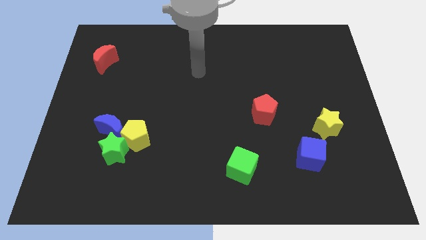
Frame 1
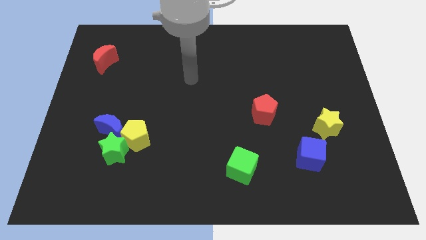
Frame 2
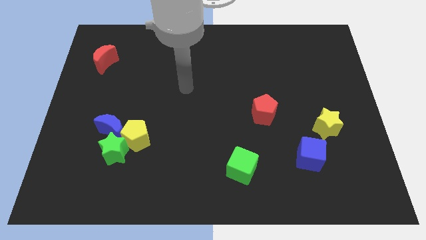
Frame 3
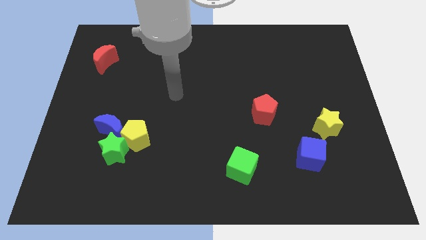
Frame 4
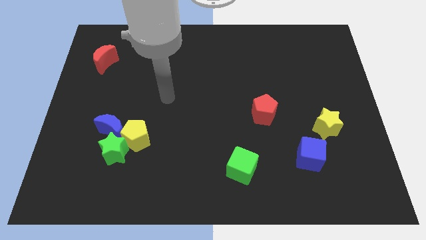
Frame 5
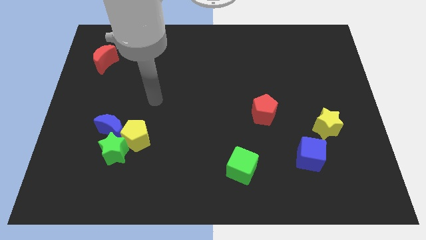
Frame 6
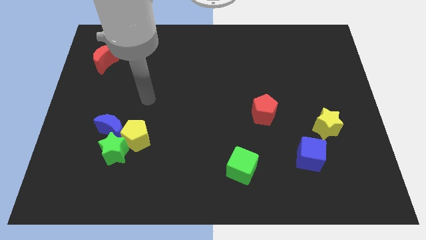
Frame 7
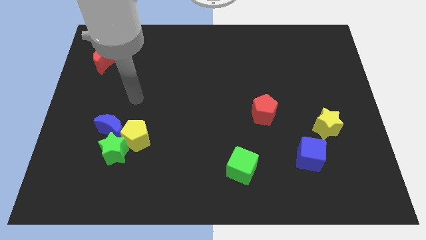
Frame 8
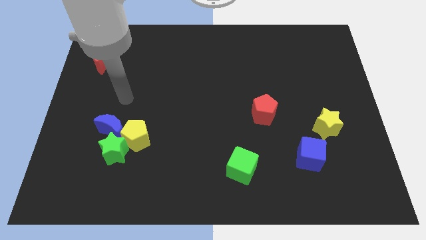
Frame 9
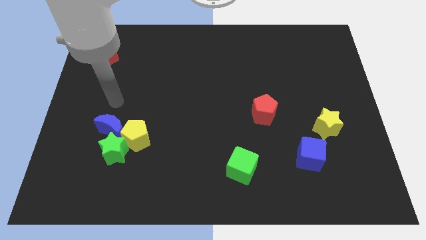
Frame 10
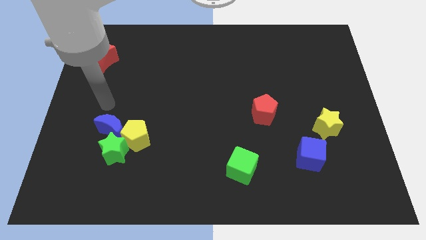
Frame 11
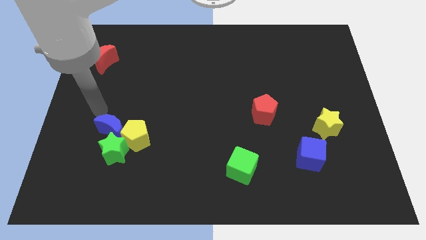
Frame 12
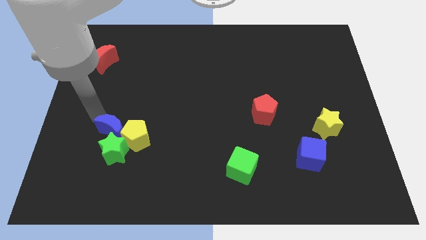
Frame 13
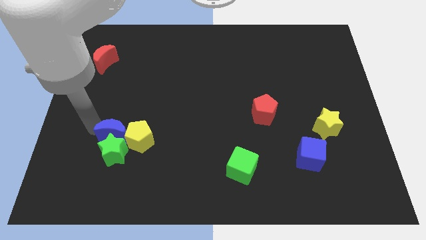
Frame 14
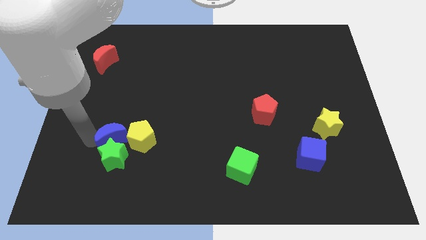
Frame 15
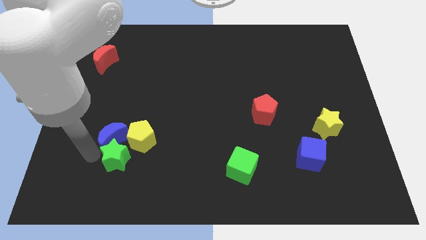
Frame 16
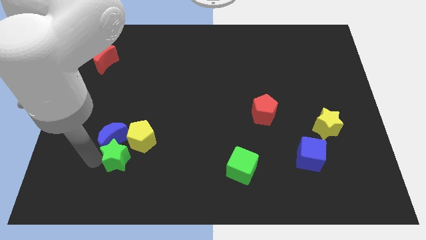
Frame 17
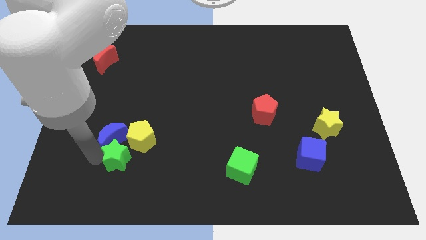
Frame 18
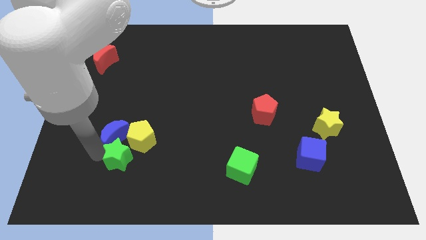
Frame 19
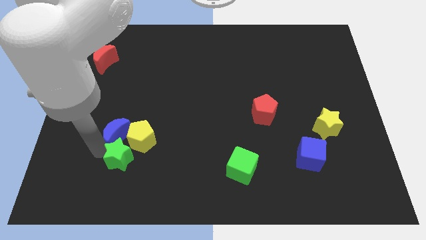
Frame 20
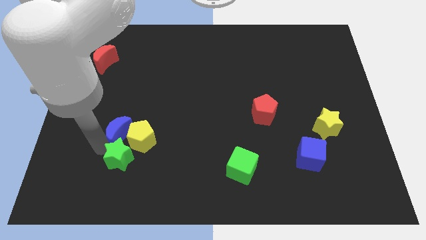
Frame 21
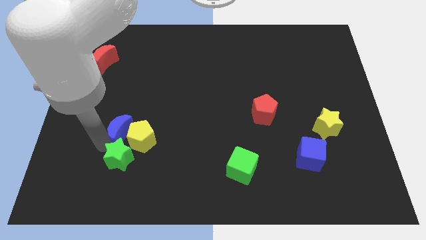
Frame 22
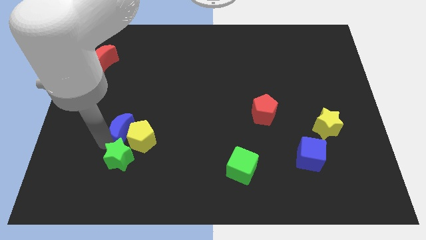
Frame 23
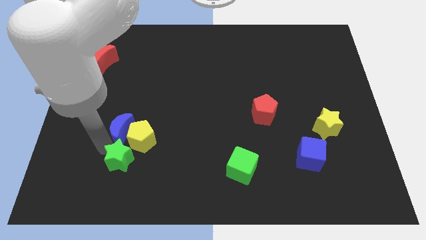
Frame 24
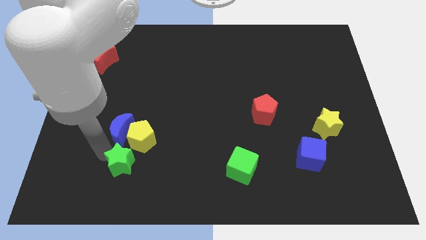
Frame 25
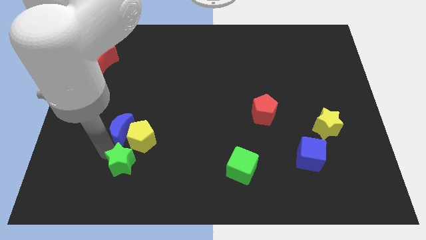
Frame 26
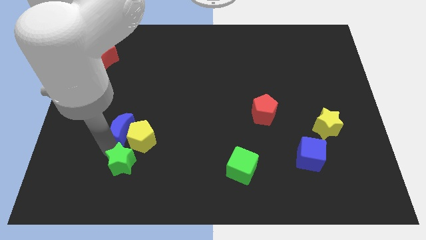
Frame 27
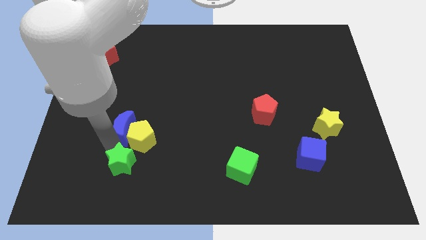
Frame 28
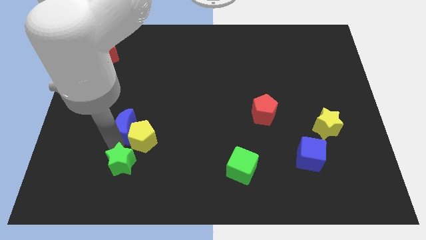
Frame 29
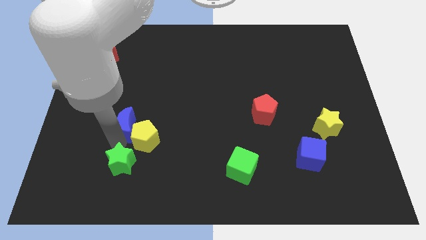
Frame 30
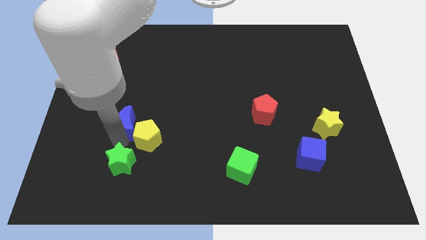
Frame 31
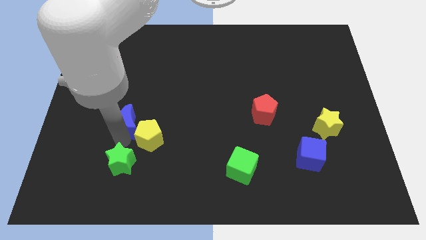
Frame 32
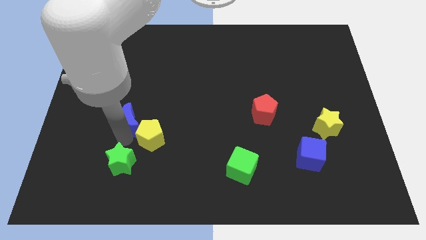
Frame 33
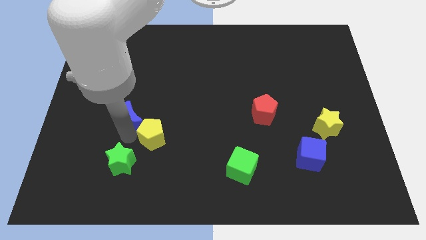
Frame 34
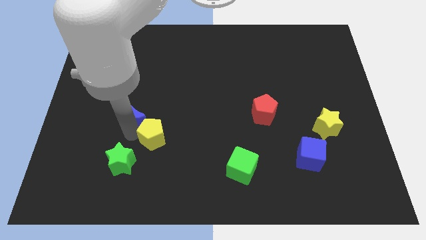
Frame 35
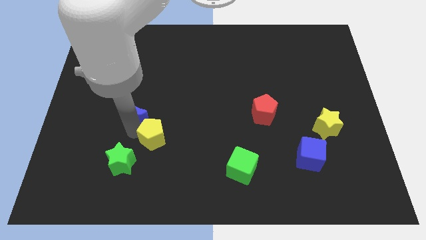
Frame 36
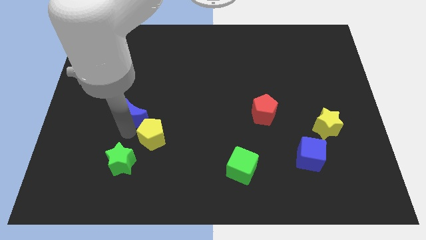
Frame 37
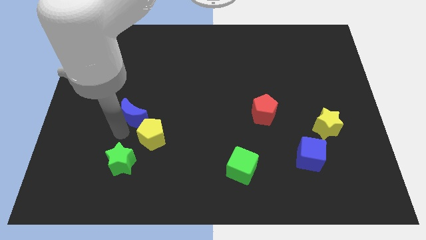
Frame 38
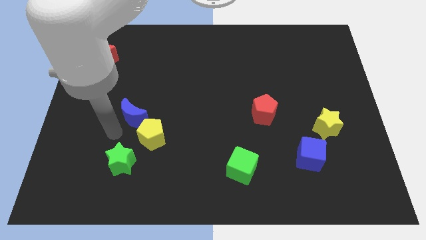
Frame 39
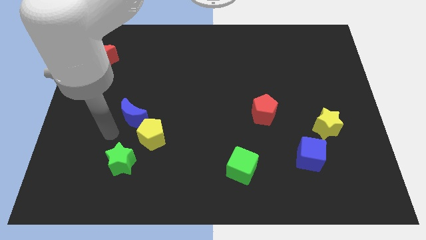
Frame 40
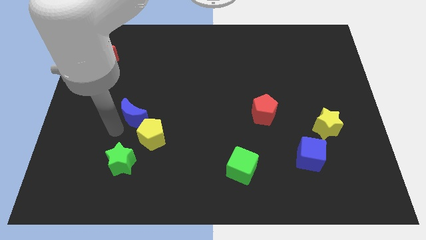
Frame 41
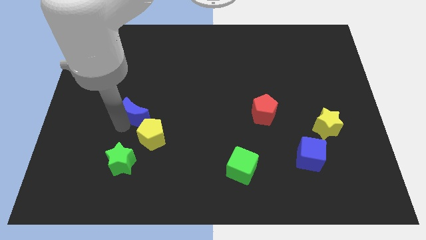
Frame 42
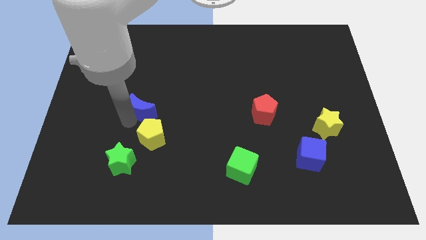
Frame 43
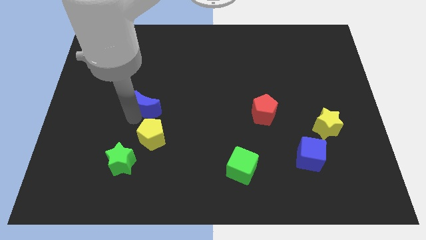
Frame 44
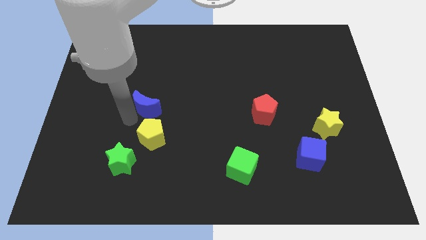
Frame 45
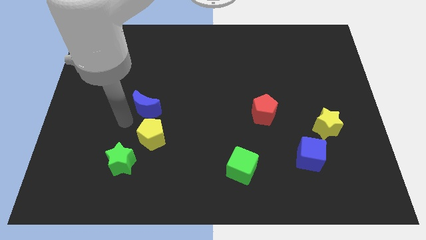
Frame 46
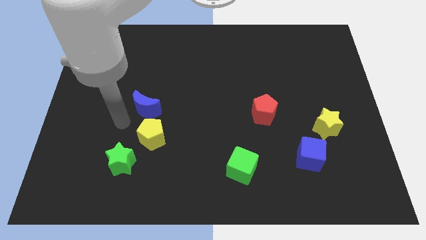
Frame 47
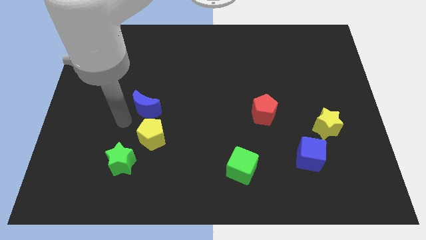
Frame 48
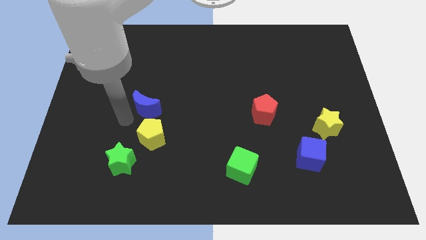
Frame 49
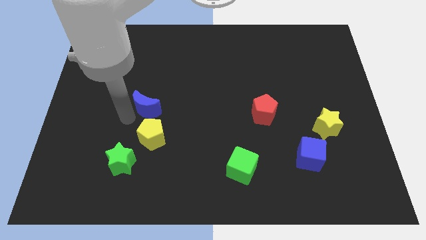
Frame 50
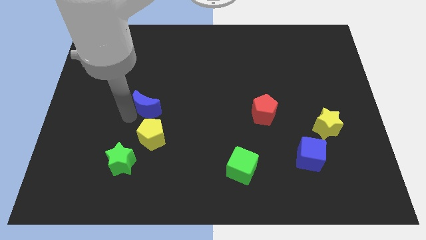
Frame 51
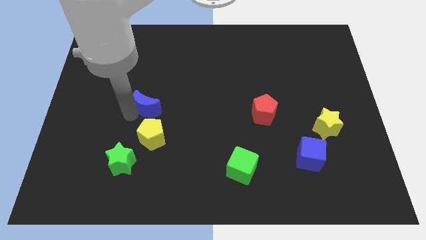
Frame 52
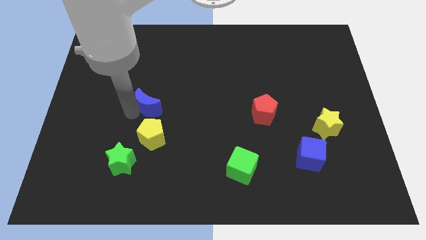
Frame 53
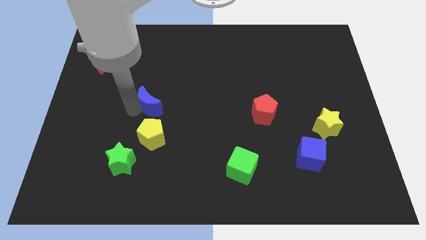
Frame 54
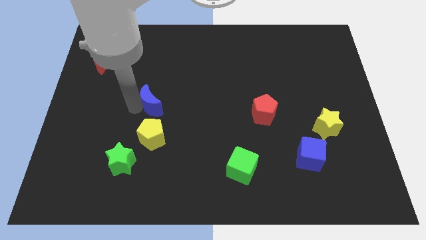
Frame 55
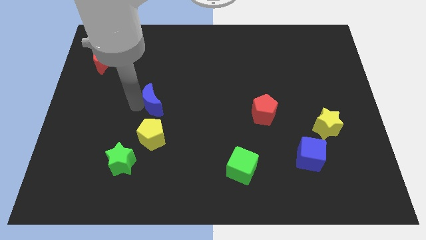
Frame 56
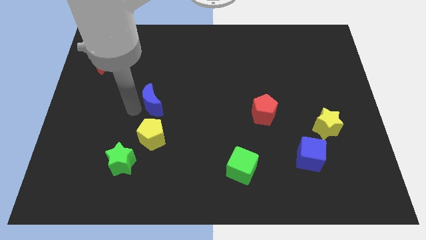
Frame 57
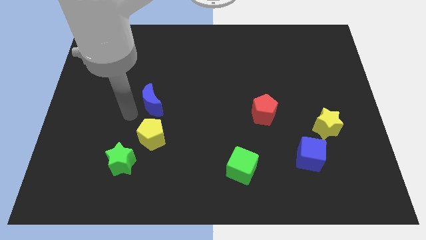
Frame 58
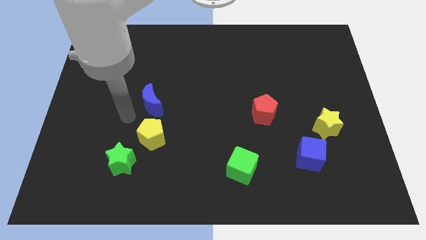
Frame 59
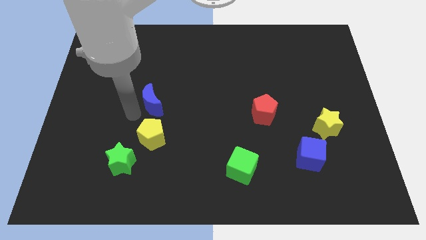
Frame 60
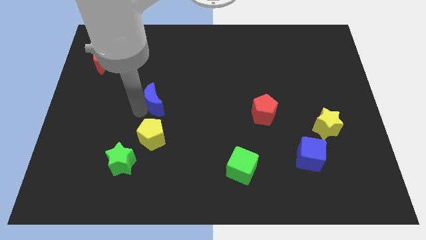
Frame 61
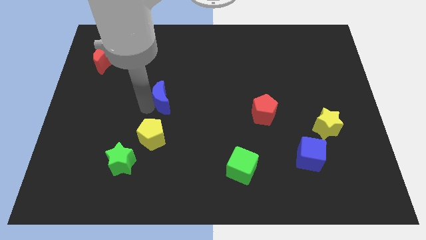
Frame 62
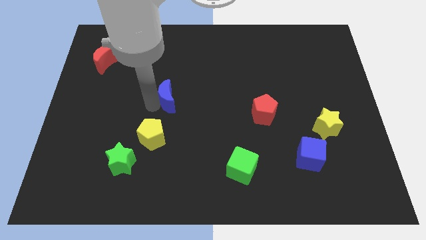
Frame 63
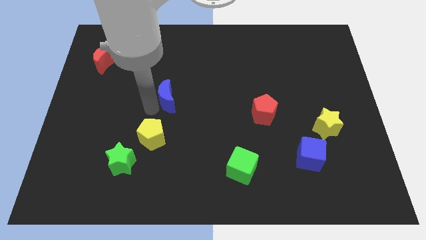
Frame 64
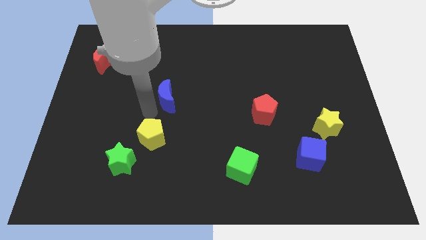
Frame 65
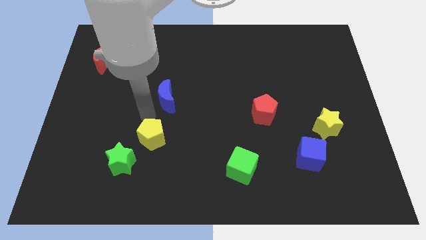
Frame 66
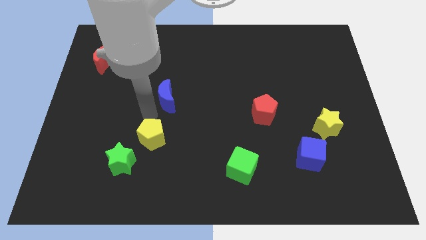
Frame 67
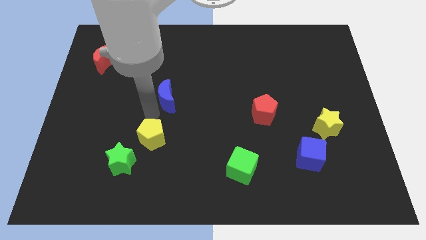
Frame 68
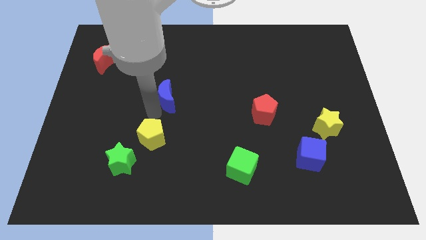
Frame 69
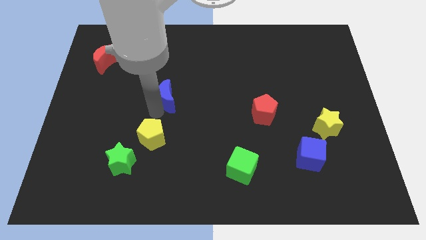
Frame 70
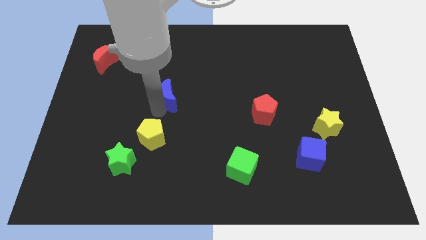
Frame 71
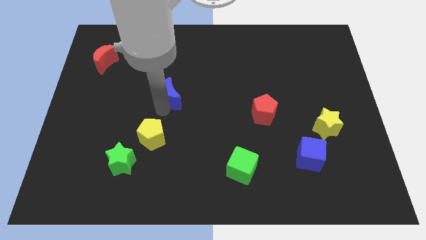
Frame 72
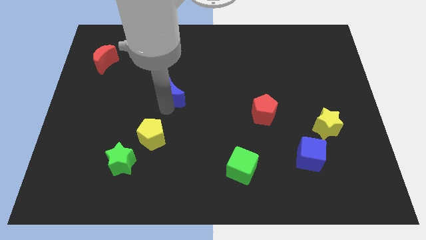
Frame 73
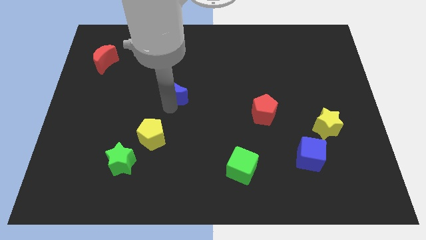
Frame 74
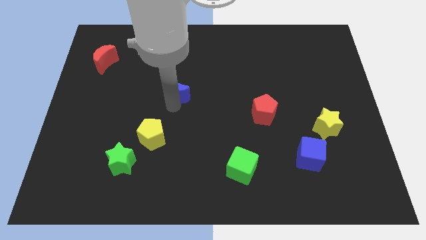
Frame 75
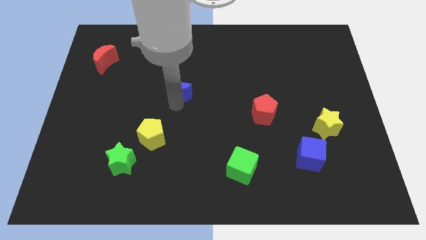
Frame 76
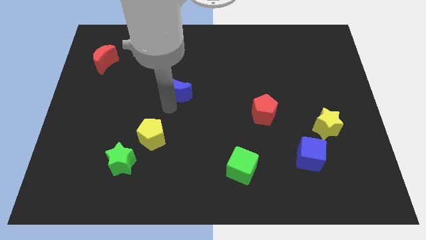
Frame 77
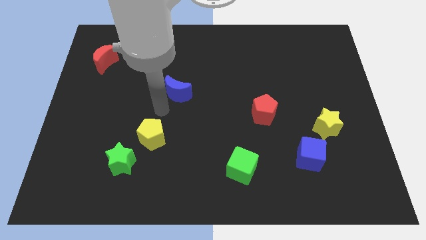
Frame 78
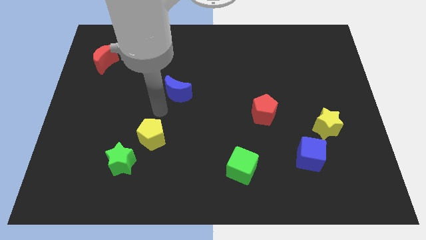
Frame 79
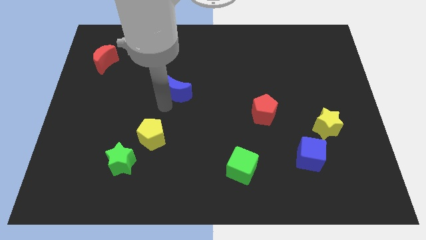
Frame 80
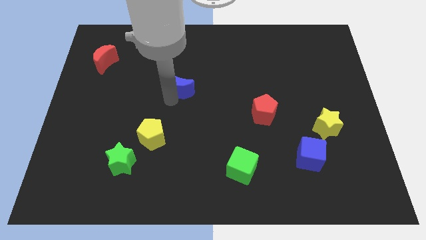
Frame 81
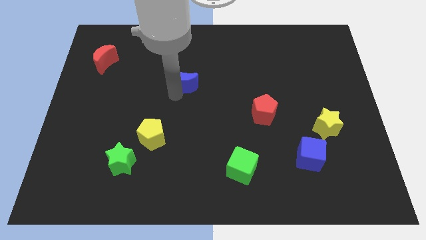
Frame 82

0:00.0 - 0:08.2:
push the blue moon diagonally up and to the right
